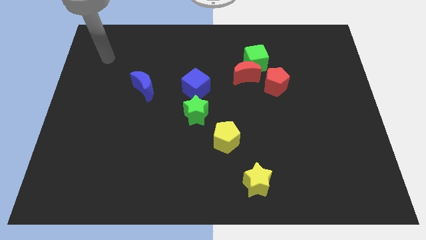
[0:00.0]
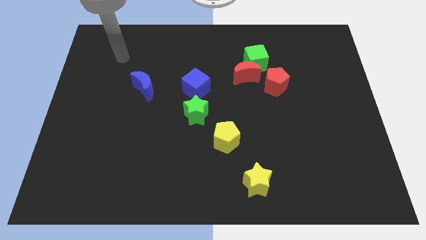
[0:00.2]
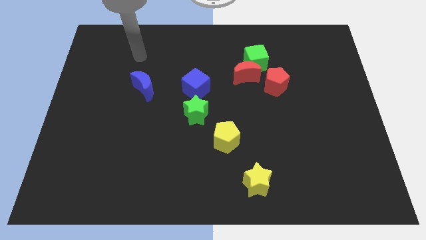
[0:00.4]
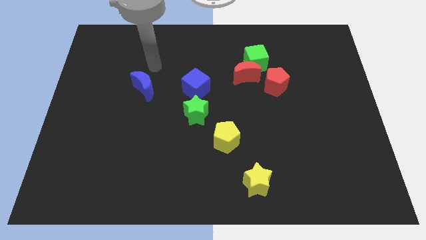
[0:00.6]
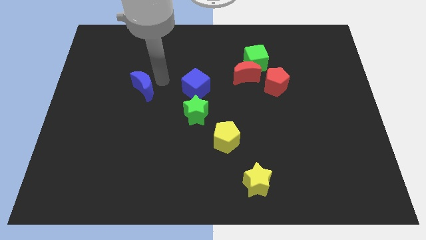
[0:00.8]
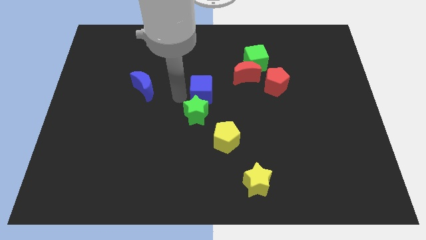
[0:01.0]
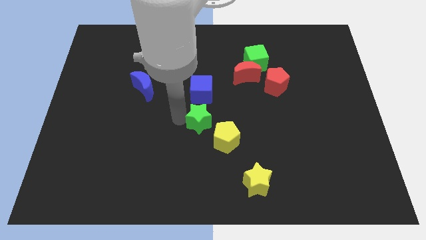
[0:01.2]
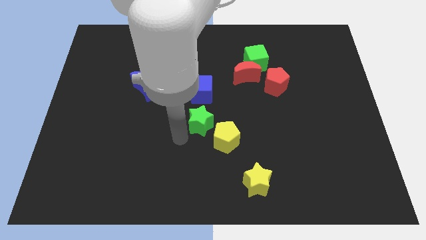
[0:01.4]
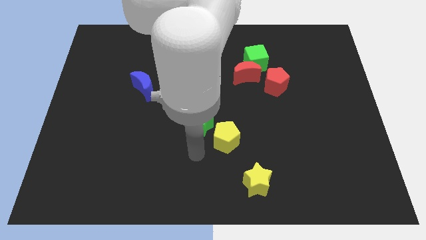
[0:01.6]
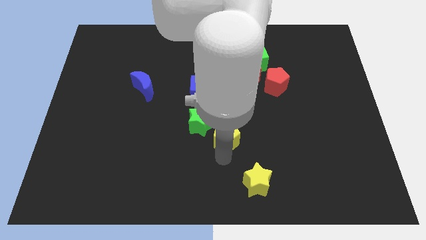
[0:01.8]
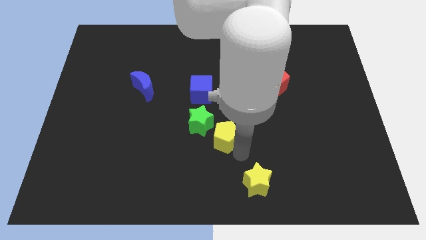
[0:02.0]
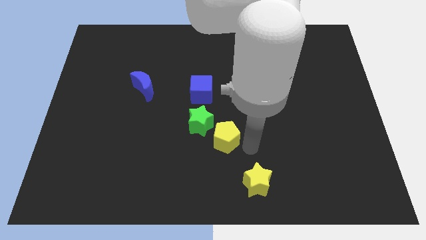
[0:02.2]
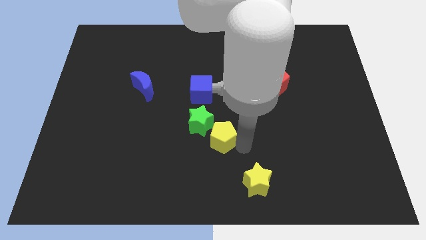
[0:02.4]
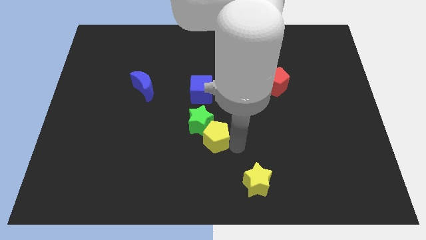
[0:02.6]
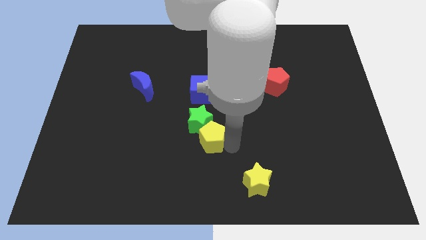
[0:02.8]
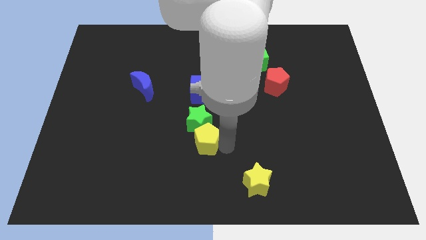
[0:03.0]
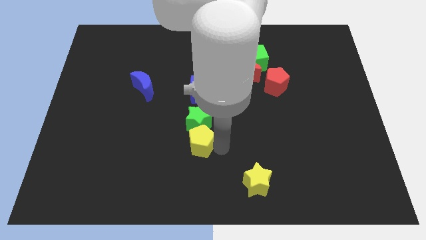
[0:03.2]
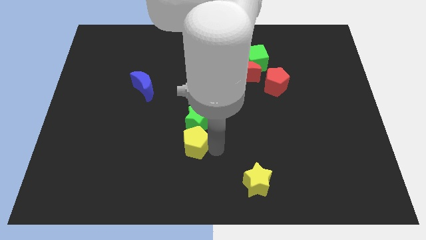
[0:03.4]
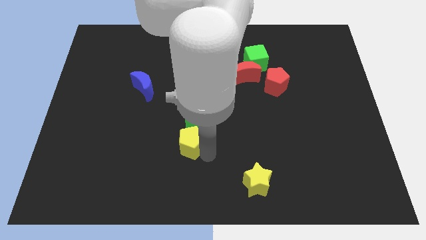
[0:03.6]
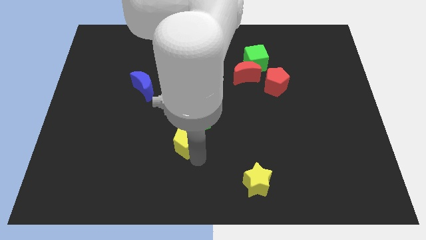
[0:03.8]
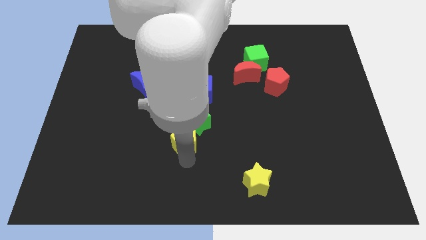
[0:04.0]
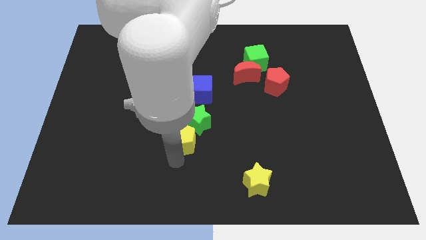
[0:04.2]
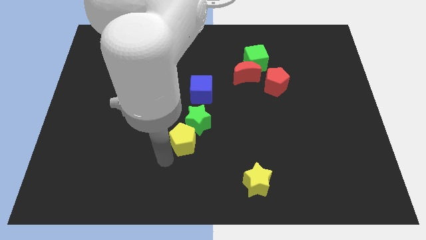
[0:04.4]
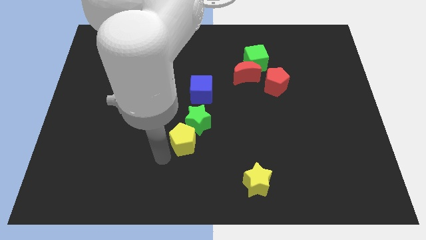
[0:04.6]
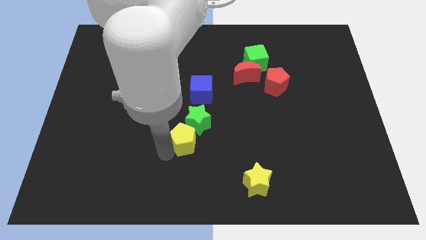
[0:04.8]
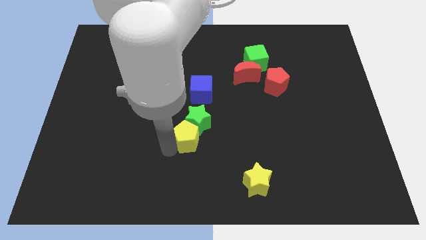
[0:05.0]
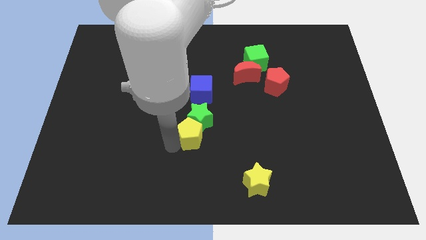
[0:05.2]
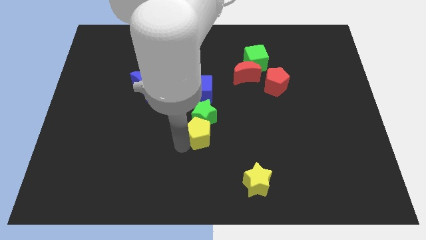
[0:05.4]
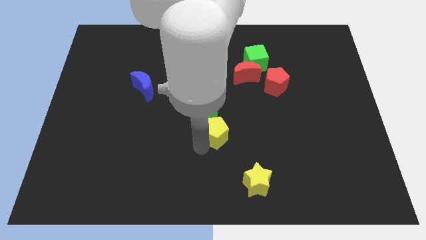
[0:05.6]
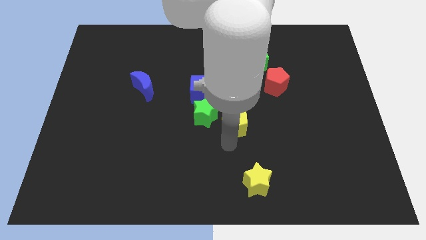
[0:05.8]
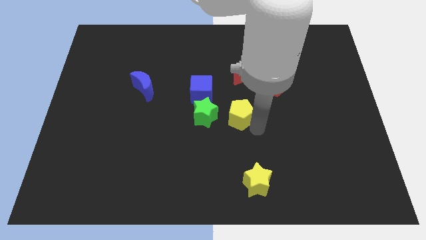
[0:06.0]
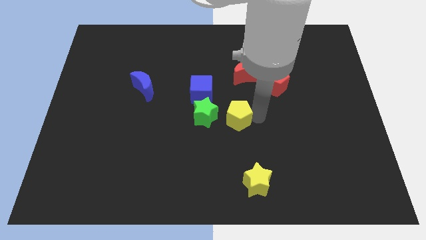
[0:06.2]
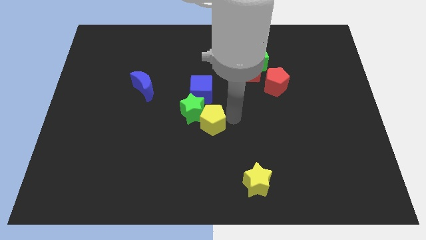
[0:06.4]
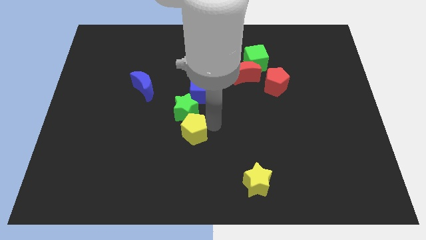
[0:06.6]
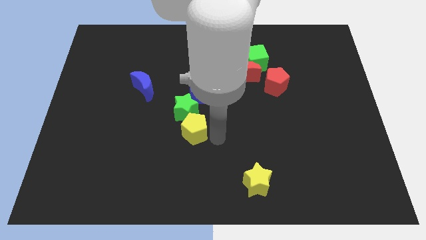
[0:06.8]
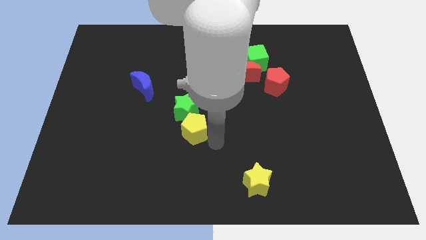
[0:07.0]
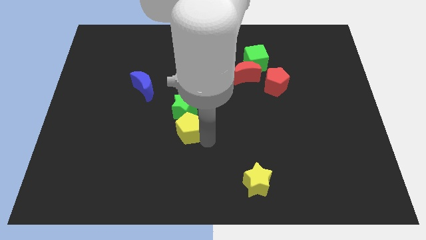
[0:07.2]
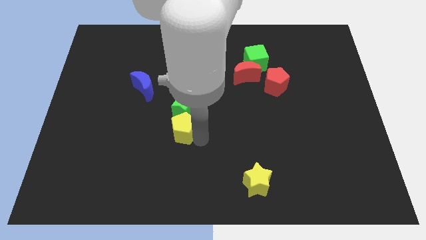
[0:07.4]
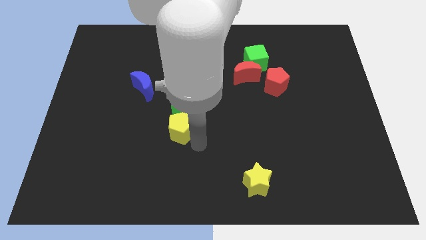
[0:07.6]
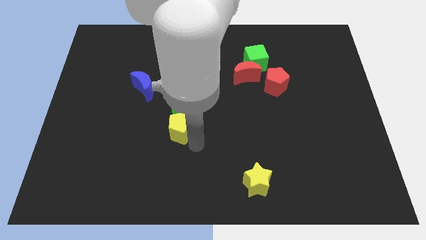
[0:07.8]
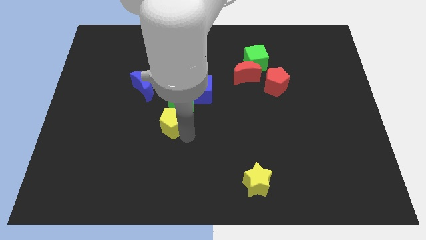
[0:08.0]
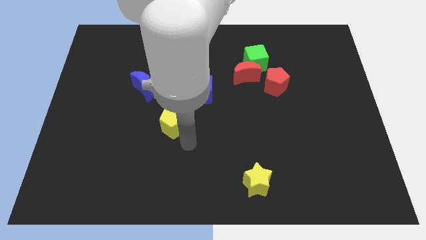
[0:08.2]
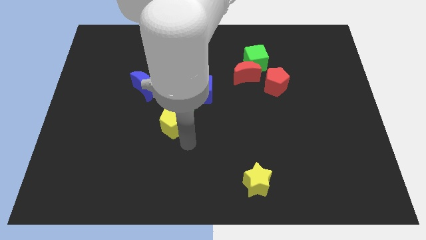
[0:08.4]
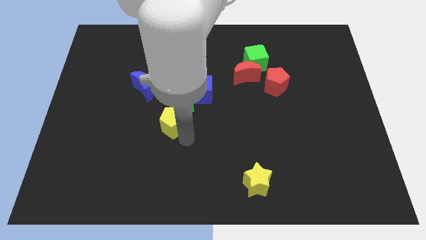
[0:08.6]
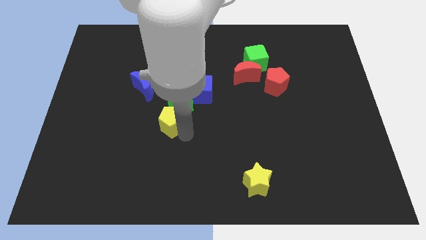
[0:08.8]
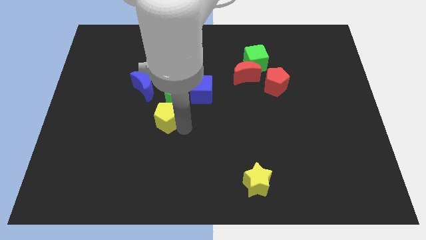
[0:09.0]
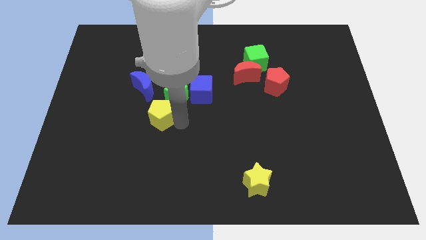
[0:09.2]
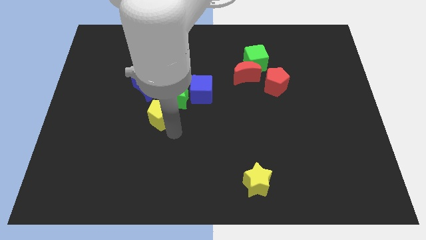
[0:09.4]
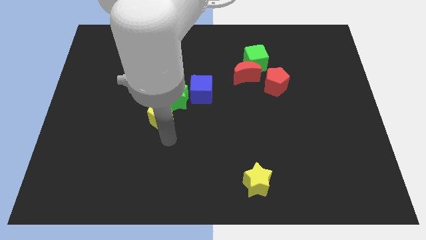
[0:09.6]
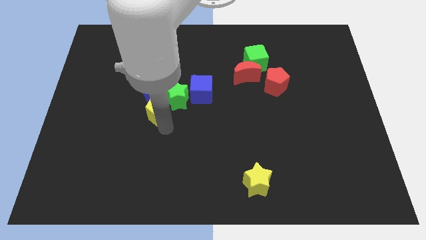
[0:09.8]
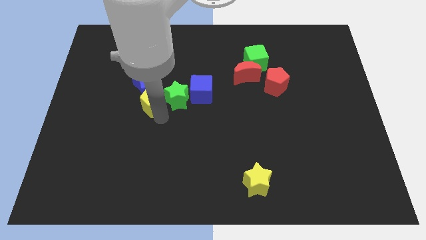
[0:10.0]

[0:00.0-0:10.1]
put the yellow pentagon towards the blue moon

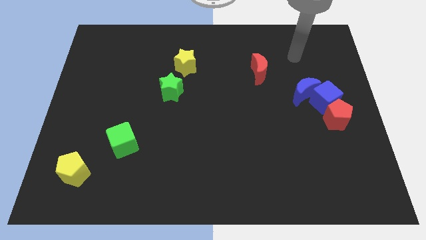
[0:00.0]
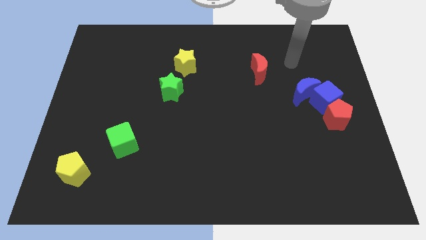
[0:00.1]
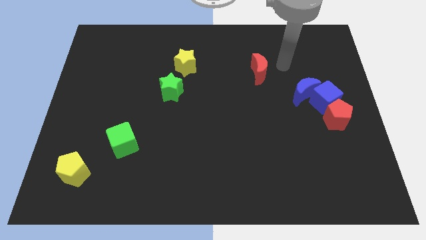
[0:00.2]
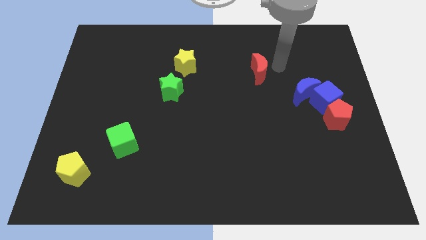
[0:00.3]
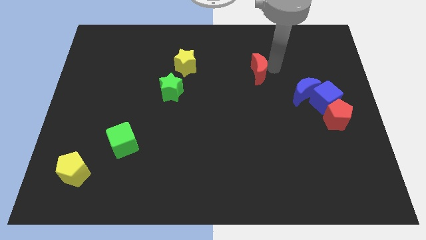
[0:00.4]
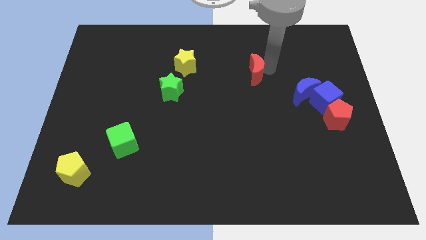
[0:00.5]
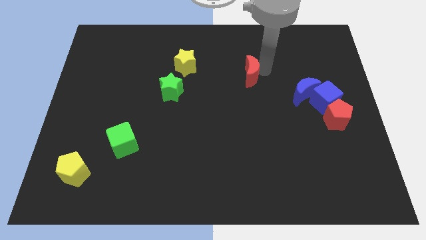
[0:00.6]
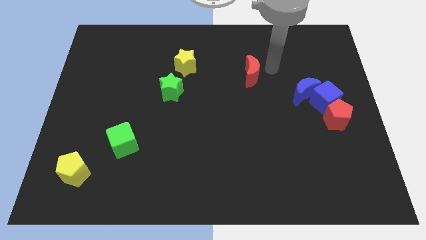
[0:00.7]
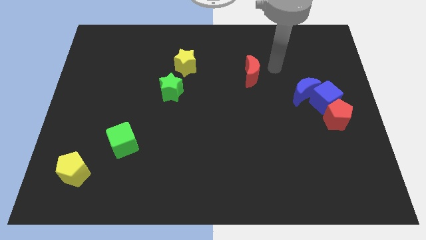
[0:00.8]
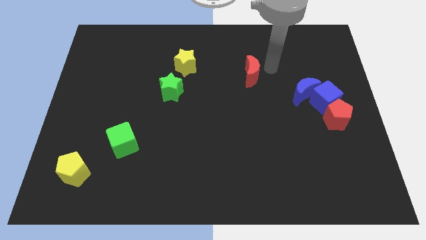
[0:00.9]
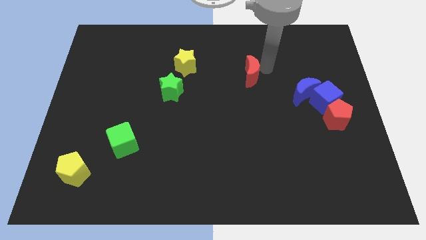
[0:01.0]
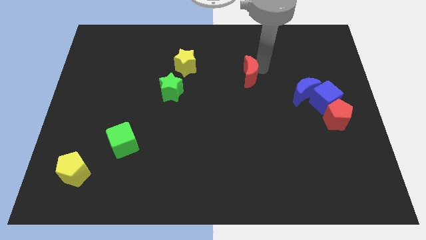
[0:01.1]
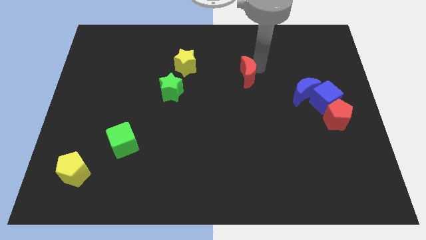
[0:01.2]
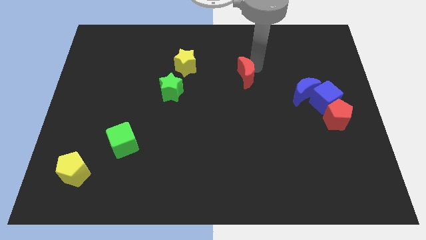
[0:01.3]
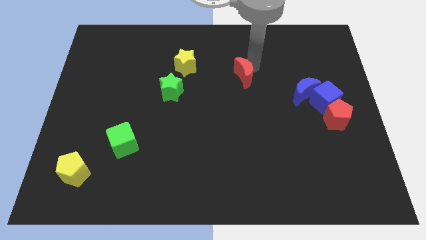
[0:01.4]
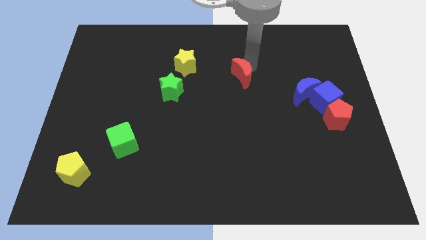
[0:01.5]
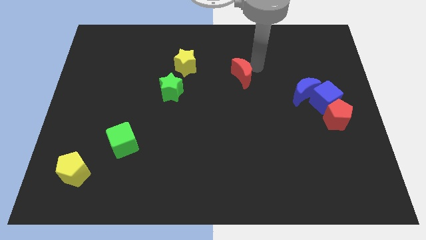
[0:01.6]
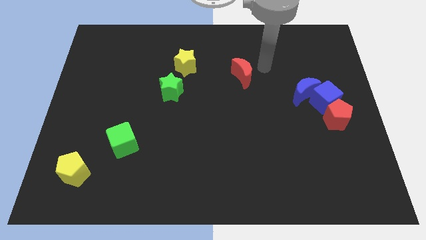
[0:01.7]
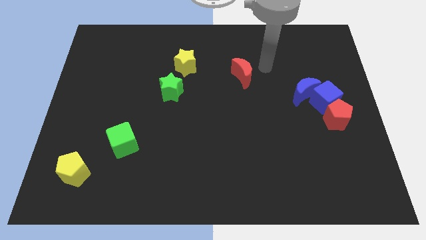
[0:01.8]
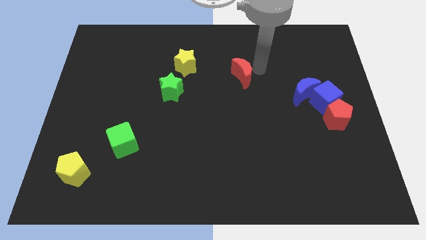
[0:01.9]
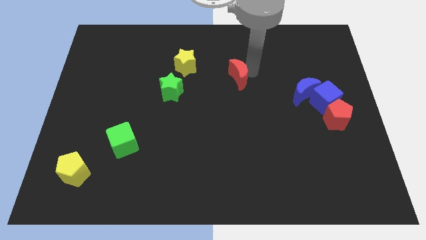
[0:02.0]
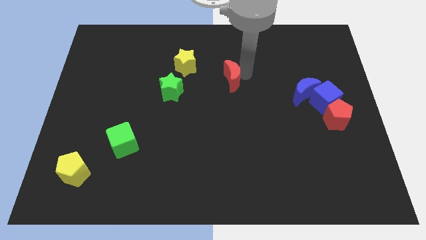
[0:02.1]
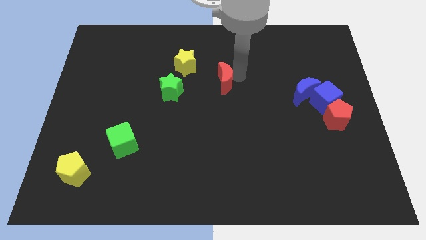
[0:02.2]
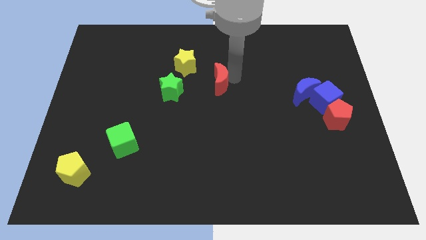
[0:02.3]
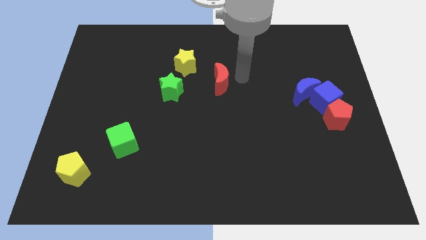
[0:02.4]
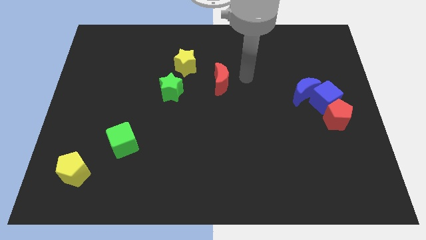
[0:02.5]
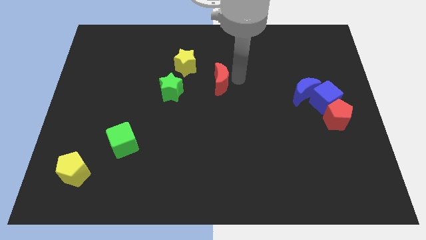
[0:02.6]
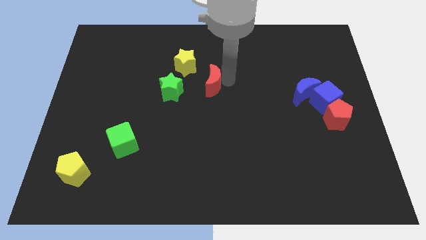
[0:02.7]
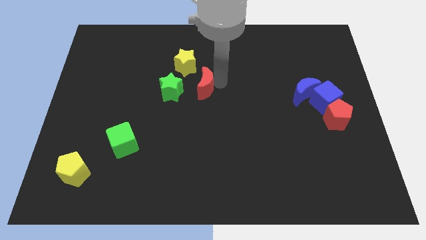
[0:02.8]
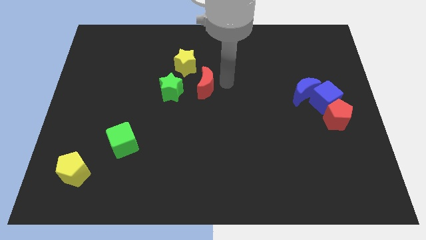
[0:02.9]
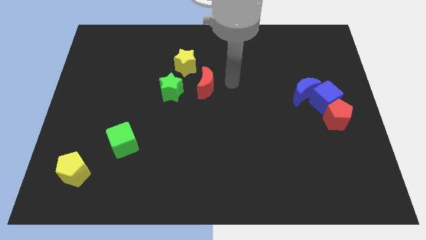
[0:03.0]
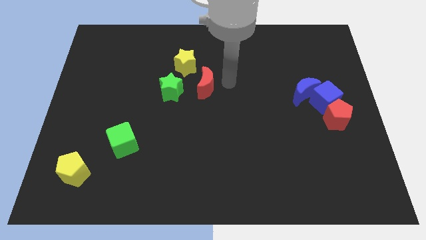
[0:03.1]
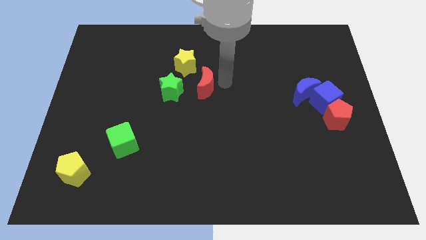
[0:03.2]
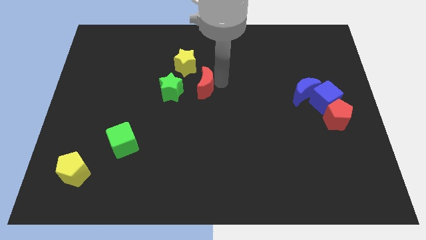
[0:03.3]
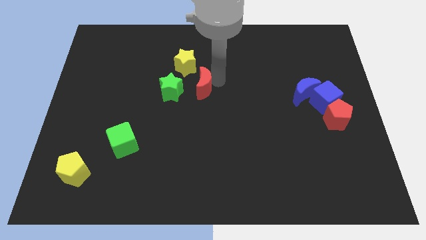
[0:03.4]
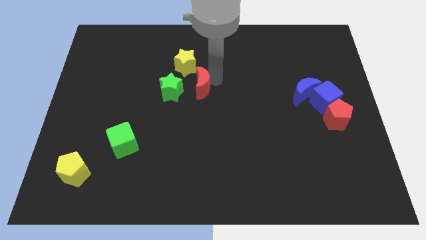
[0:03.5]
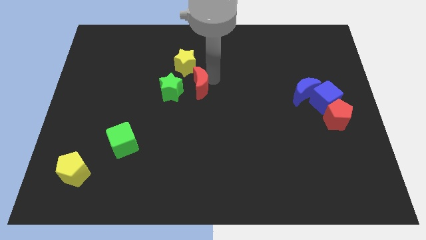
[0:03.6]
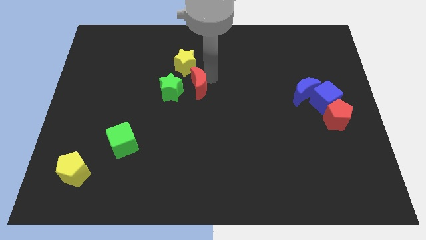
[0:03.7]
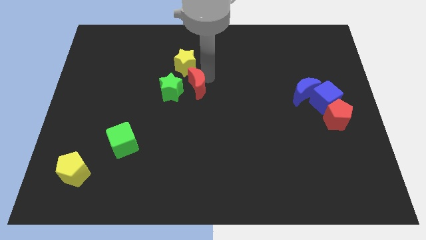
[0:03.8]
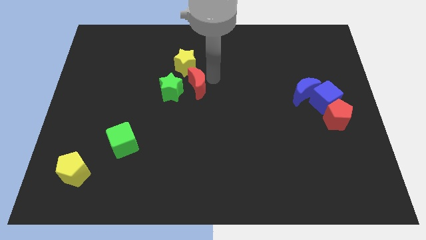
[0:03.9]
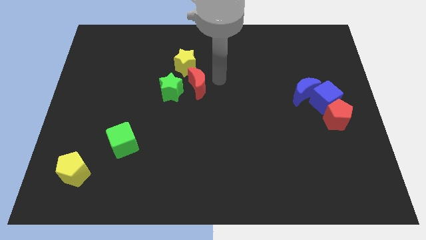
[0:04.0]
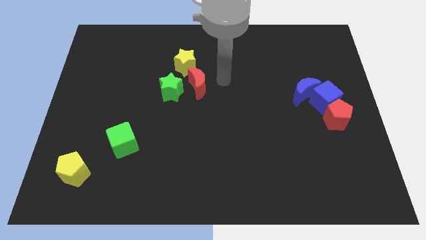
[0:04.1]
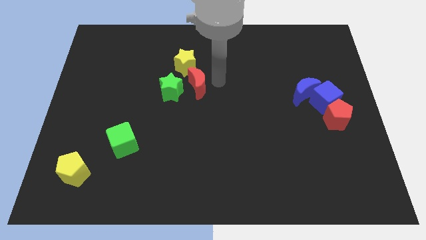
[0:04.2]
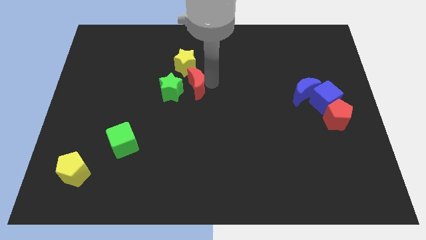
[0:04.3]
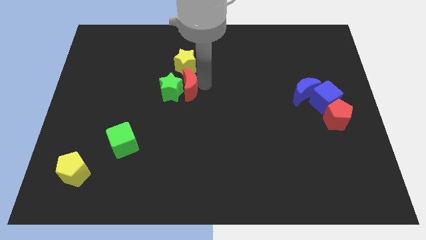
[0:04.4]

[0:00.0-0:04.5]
move the red moon to the green star
